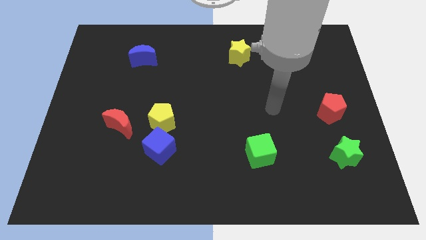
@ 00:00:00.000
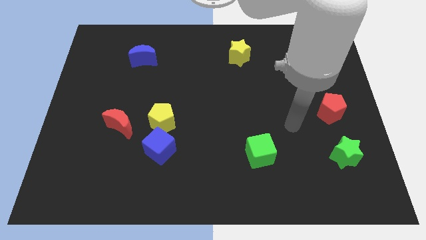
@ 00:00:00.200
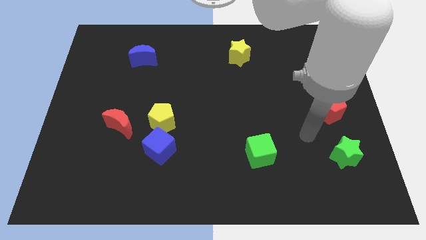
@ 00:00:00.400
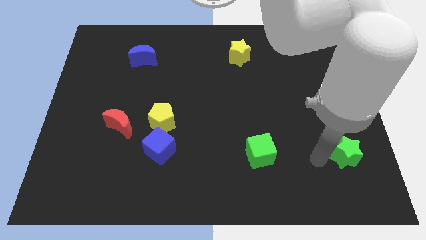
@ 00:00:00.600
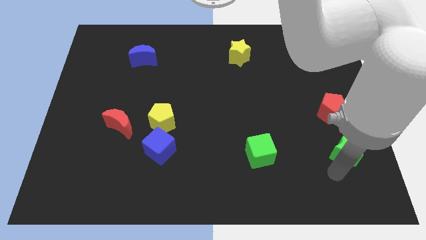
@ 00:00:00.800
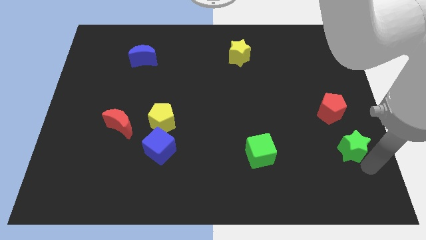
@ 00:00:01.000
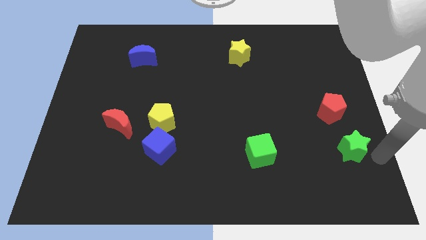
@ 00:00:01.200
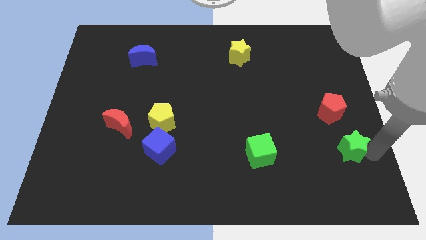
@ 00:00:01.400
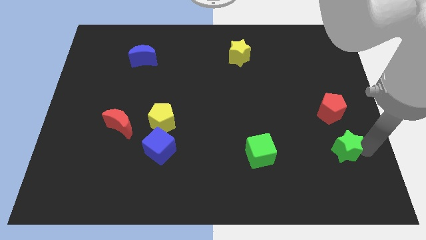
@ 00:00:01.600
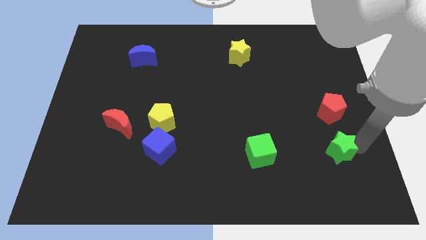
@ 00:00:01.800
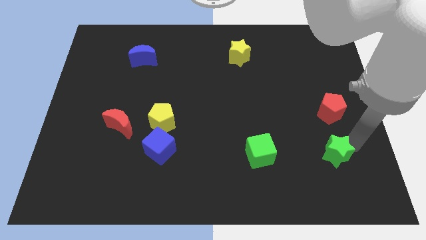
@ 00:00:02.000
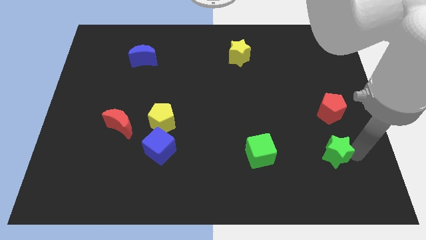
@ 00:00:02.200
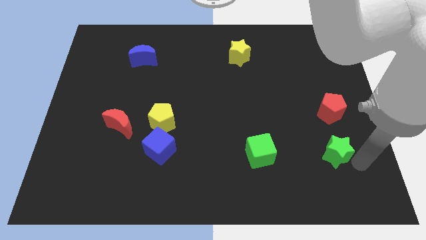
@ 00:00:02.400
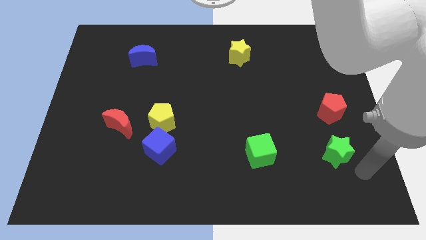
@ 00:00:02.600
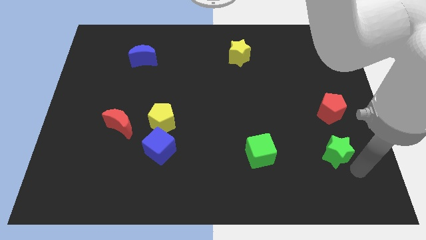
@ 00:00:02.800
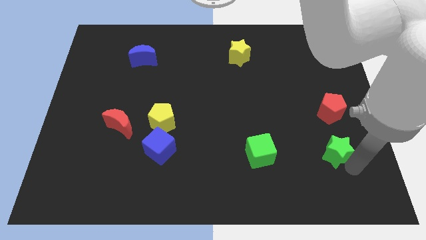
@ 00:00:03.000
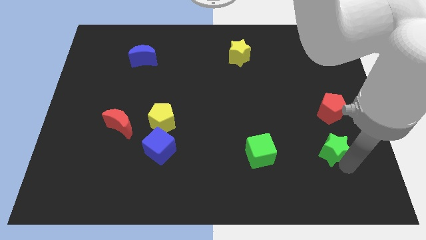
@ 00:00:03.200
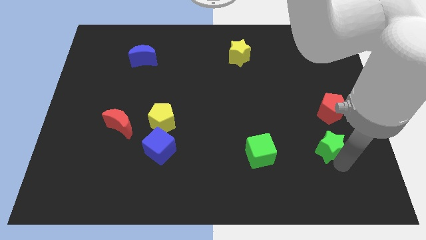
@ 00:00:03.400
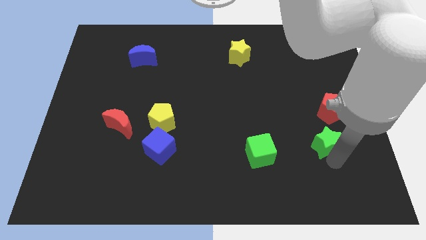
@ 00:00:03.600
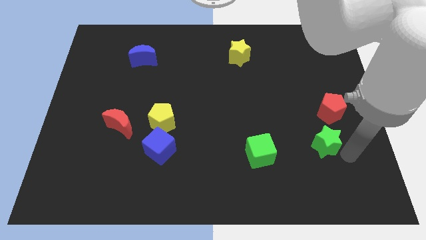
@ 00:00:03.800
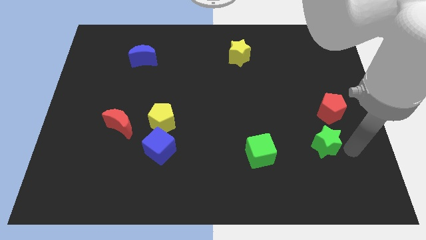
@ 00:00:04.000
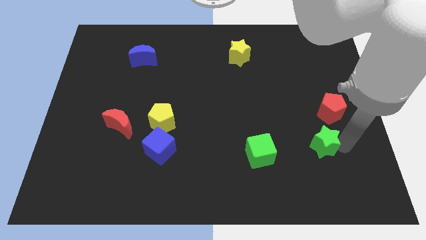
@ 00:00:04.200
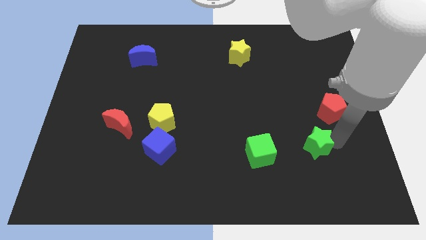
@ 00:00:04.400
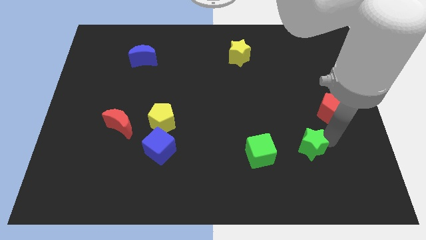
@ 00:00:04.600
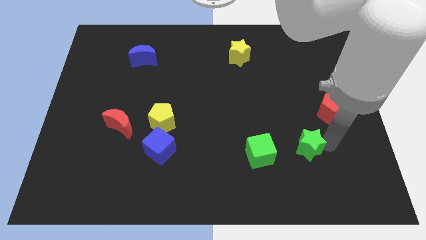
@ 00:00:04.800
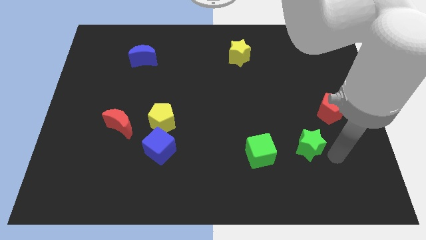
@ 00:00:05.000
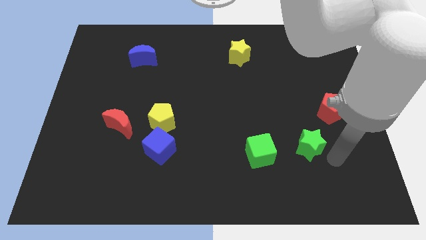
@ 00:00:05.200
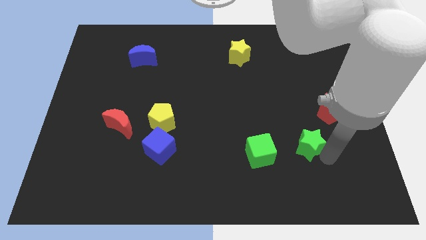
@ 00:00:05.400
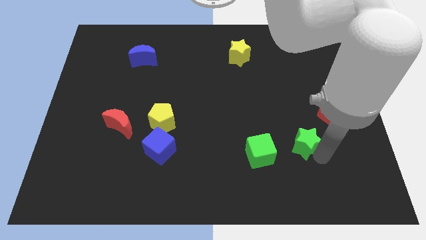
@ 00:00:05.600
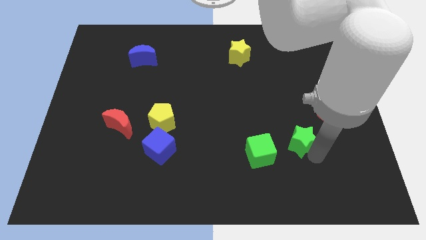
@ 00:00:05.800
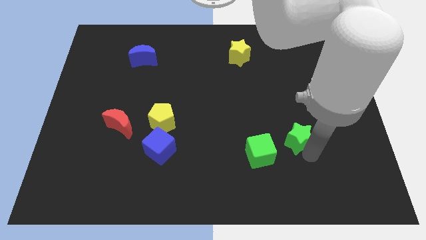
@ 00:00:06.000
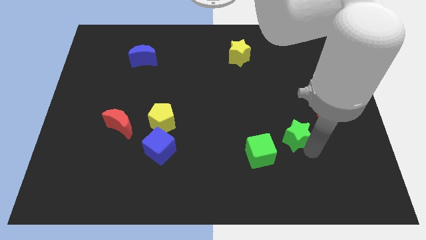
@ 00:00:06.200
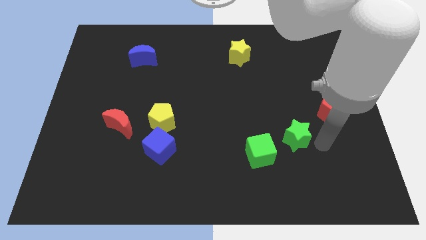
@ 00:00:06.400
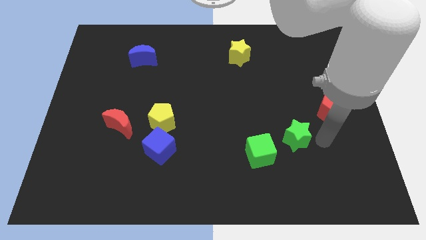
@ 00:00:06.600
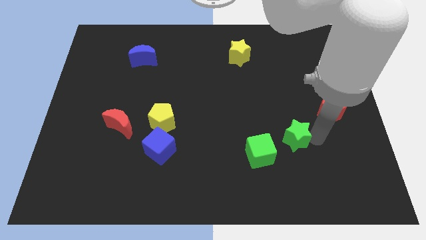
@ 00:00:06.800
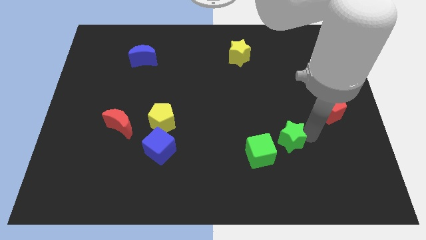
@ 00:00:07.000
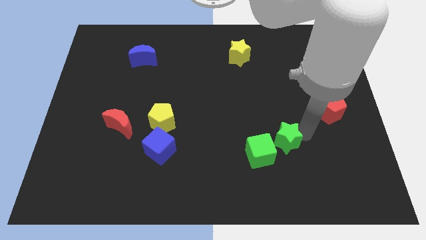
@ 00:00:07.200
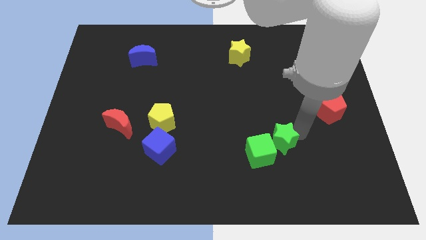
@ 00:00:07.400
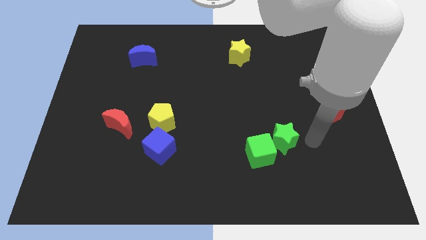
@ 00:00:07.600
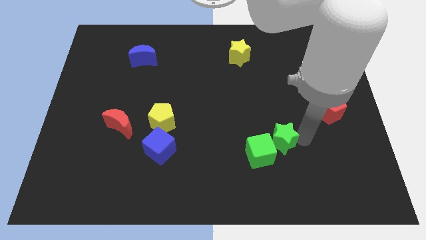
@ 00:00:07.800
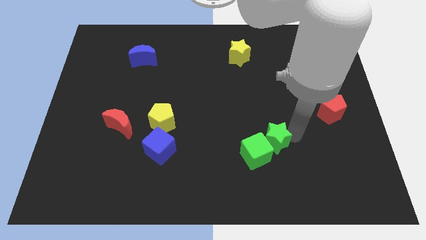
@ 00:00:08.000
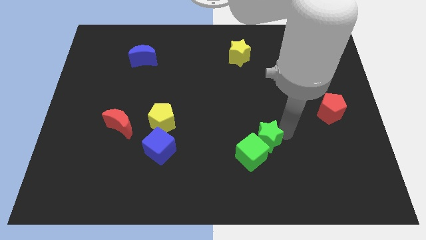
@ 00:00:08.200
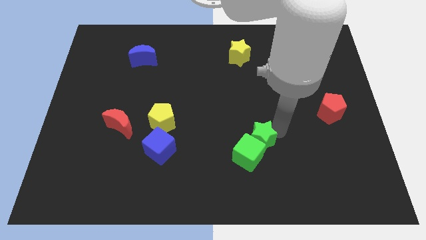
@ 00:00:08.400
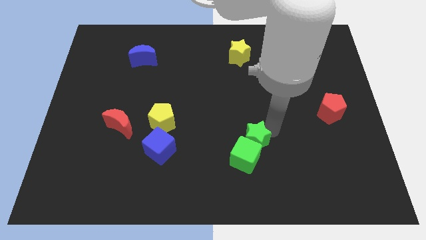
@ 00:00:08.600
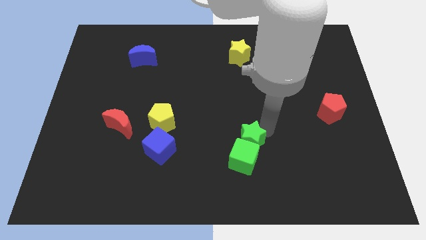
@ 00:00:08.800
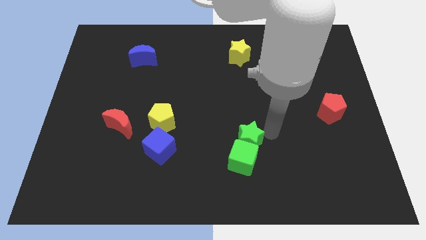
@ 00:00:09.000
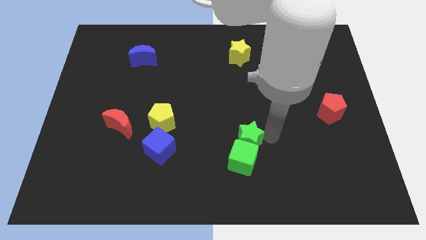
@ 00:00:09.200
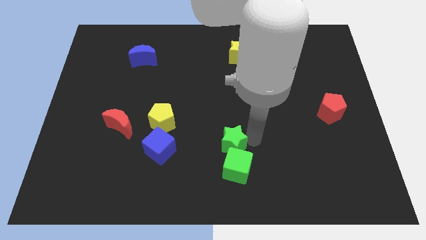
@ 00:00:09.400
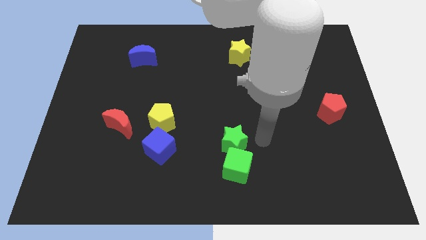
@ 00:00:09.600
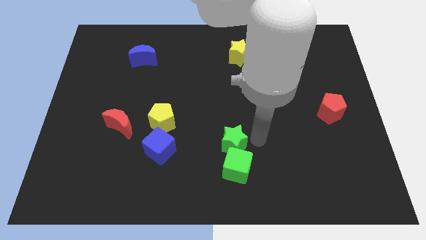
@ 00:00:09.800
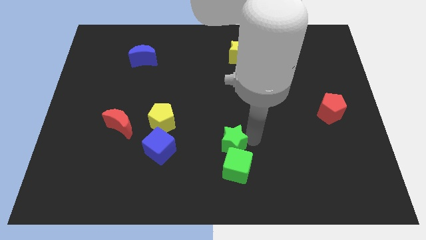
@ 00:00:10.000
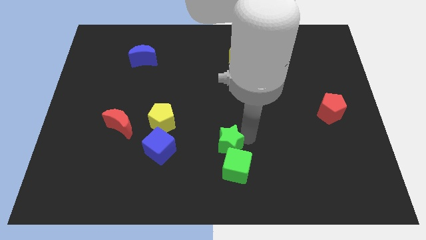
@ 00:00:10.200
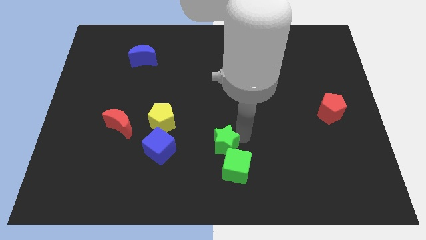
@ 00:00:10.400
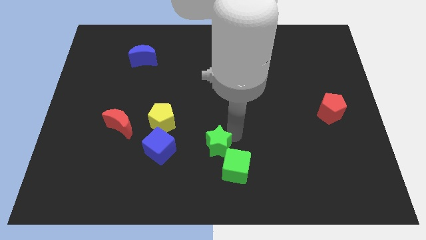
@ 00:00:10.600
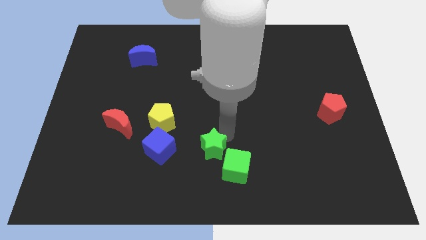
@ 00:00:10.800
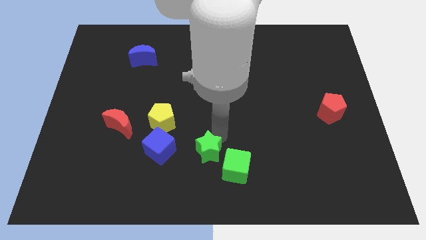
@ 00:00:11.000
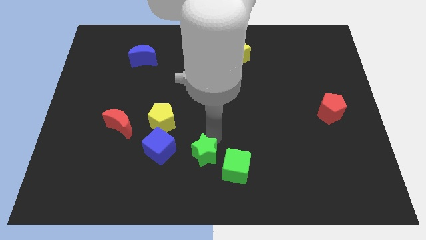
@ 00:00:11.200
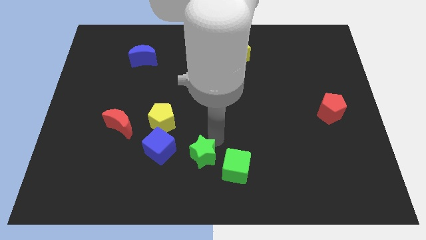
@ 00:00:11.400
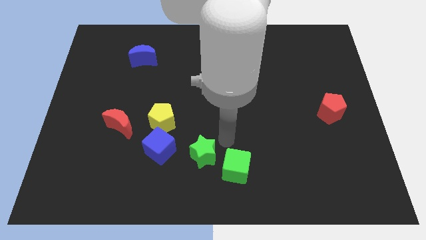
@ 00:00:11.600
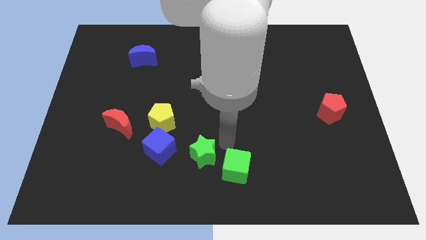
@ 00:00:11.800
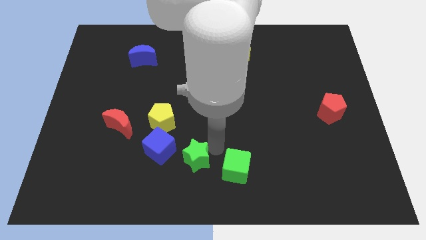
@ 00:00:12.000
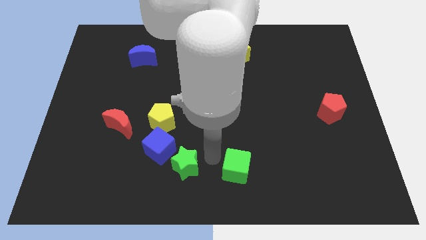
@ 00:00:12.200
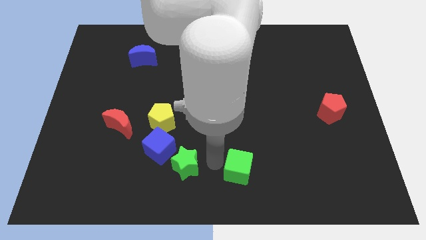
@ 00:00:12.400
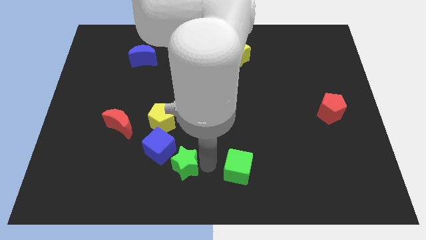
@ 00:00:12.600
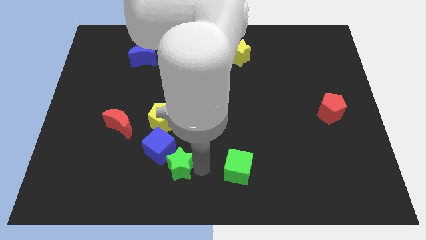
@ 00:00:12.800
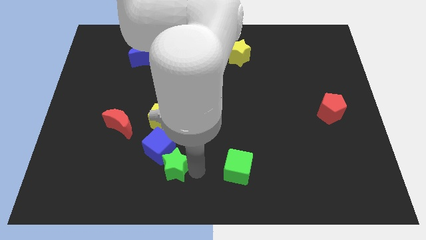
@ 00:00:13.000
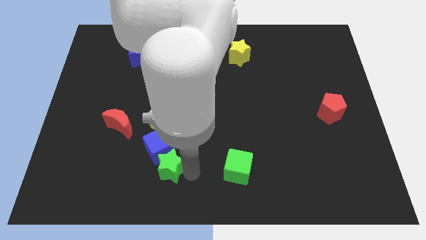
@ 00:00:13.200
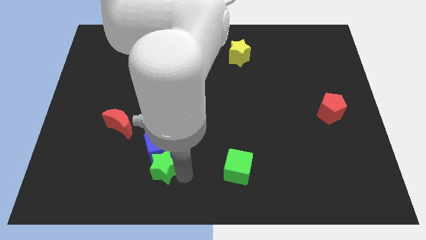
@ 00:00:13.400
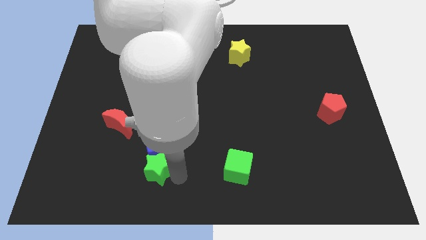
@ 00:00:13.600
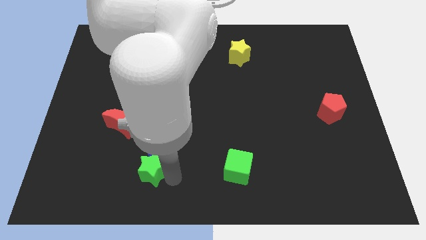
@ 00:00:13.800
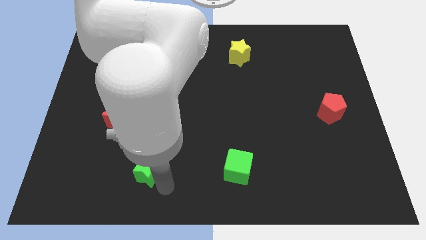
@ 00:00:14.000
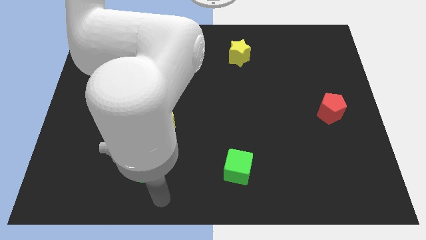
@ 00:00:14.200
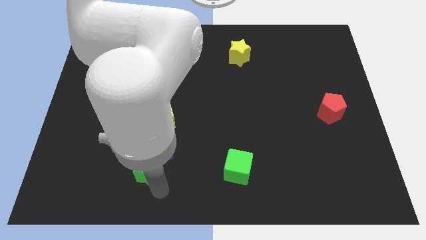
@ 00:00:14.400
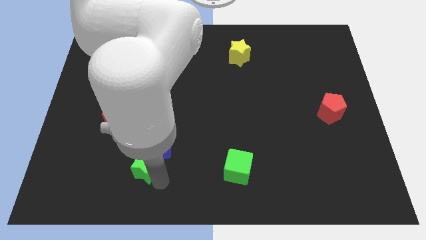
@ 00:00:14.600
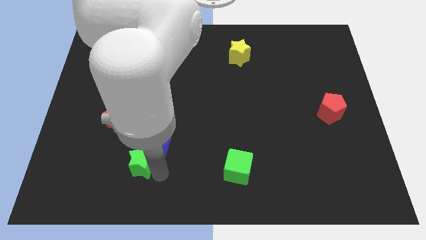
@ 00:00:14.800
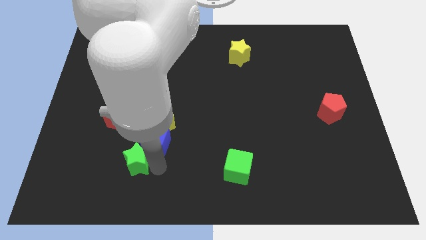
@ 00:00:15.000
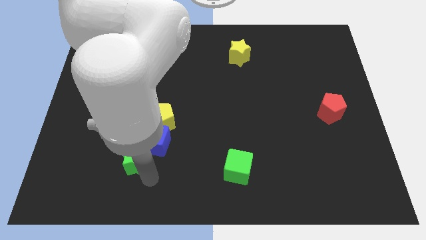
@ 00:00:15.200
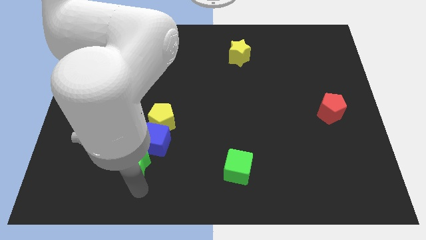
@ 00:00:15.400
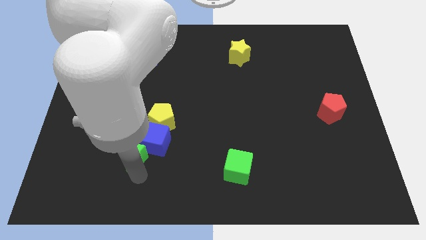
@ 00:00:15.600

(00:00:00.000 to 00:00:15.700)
slide the green star to the bottom left side of the yellow pentagon
